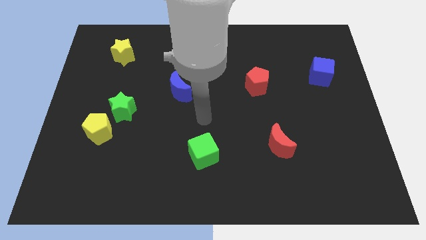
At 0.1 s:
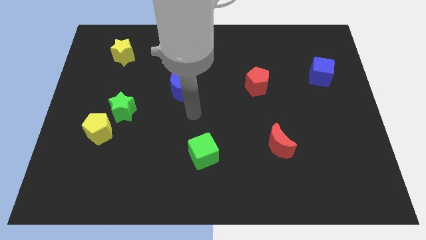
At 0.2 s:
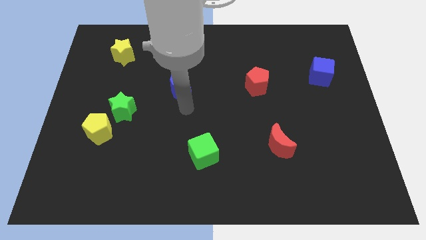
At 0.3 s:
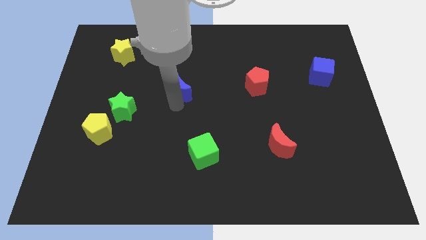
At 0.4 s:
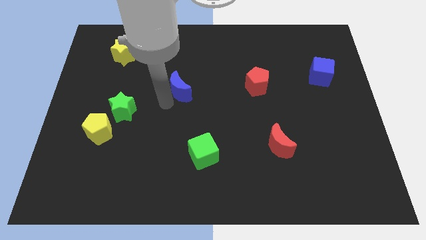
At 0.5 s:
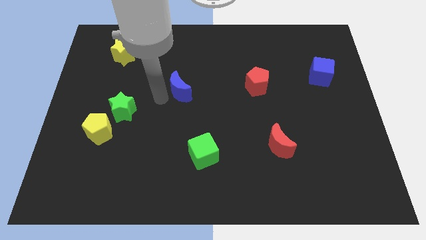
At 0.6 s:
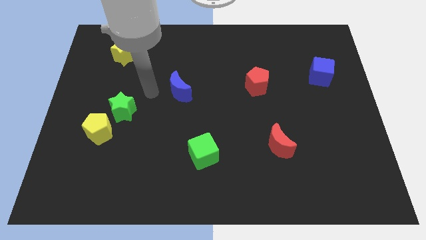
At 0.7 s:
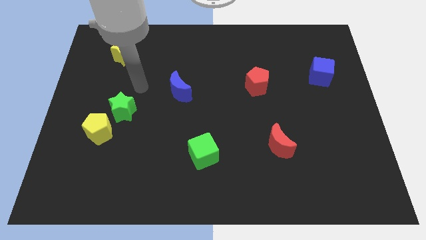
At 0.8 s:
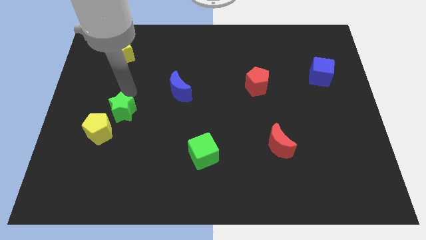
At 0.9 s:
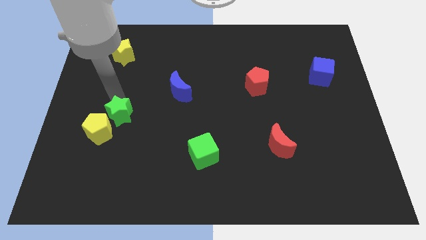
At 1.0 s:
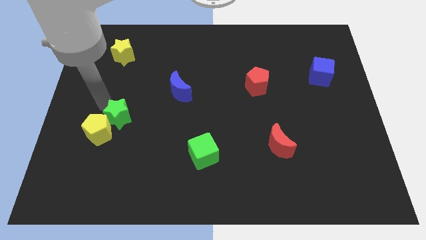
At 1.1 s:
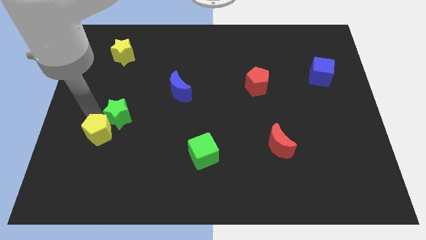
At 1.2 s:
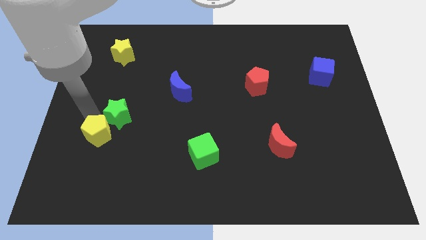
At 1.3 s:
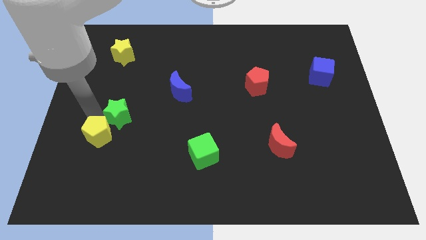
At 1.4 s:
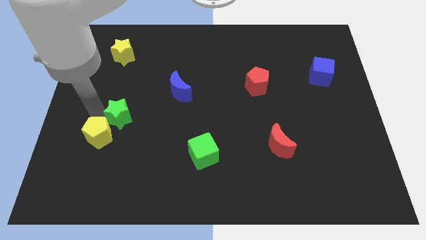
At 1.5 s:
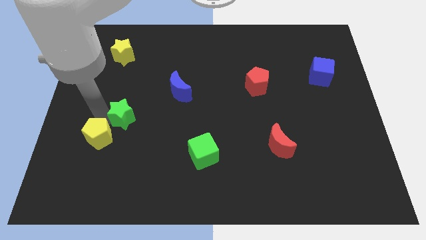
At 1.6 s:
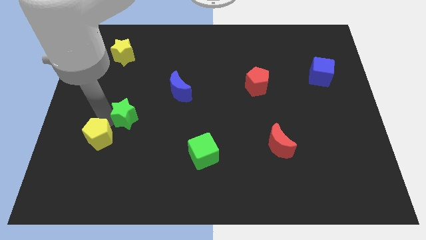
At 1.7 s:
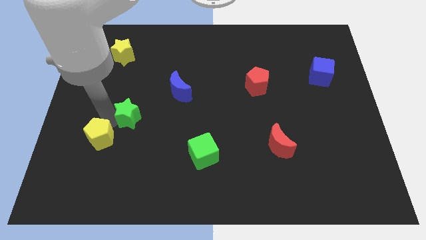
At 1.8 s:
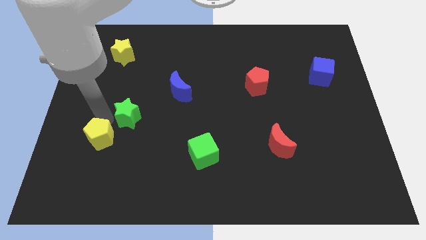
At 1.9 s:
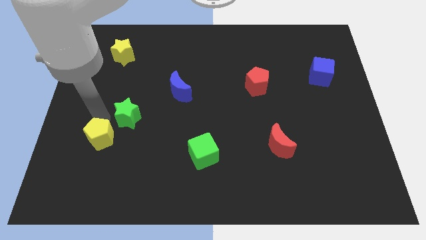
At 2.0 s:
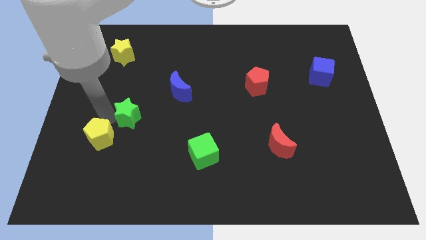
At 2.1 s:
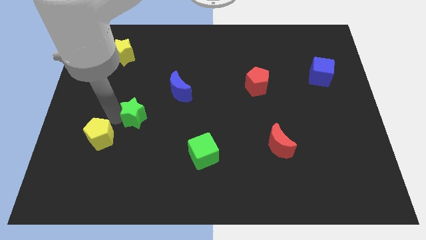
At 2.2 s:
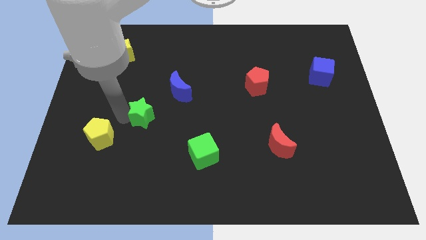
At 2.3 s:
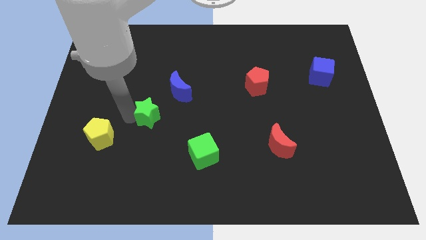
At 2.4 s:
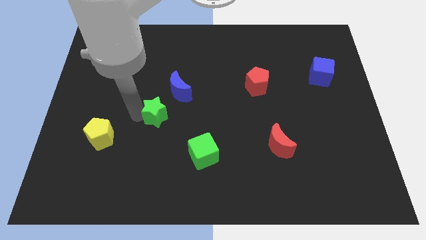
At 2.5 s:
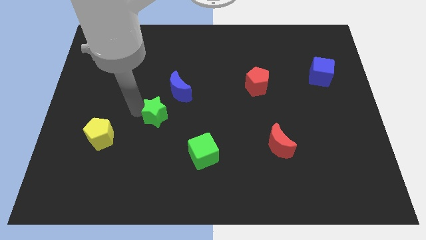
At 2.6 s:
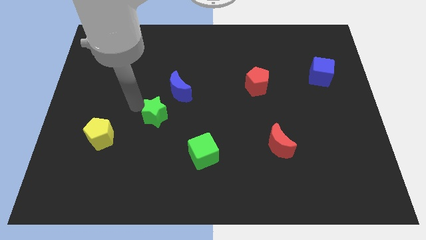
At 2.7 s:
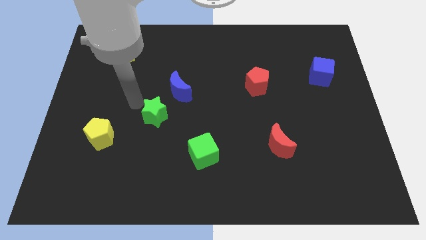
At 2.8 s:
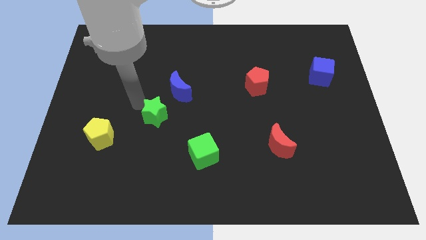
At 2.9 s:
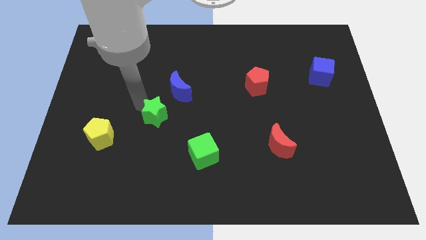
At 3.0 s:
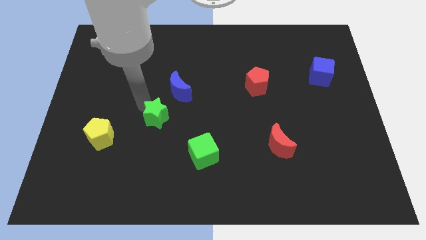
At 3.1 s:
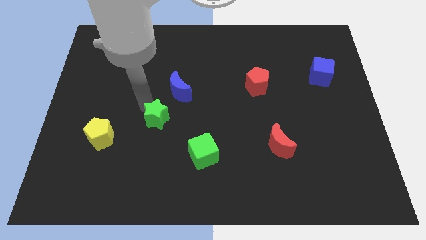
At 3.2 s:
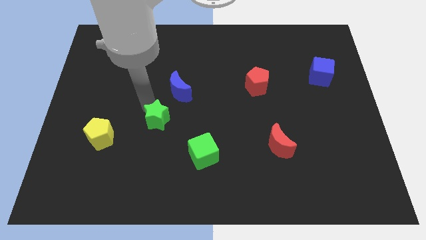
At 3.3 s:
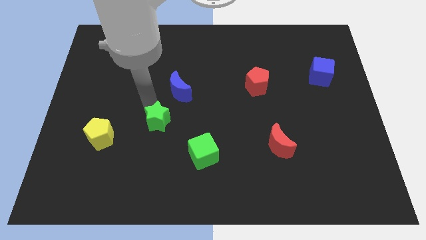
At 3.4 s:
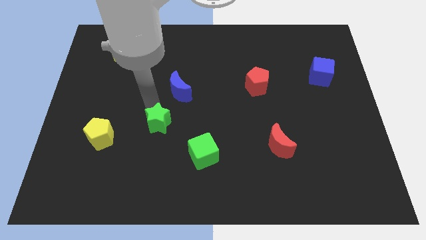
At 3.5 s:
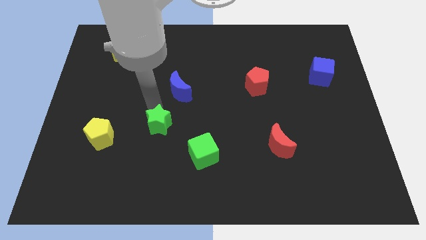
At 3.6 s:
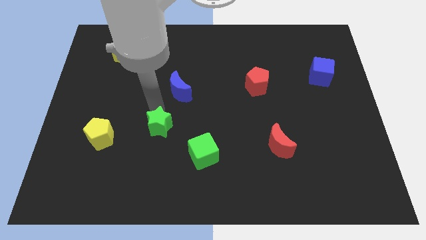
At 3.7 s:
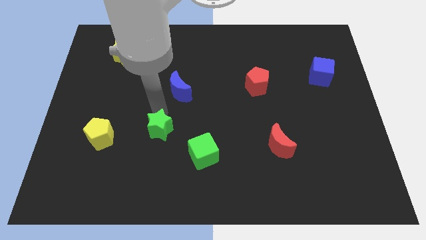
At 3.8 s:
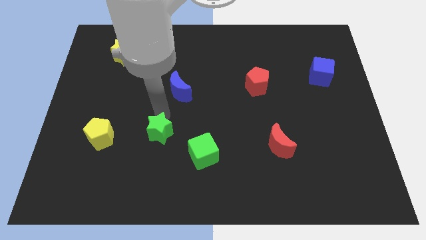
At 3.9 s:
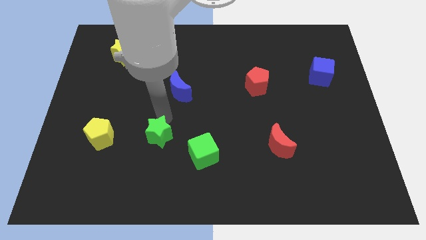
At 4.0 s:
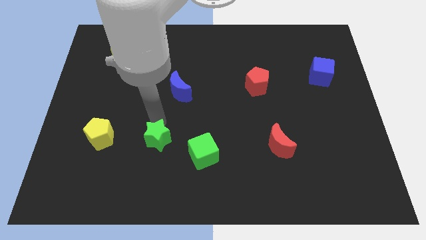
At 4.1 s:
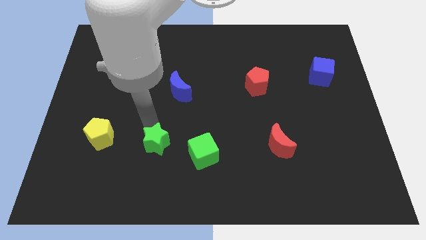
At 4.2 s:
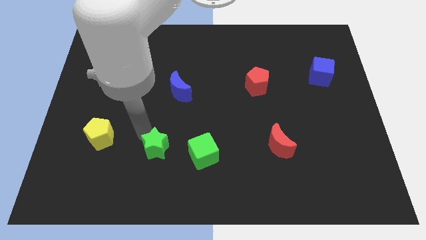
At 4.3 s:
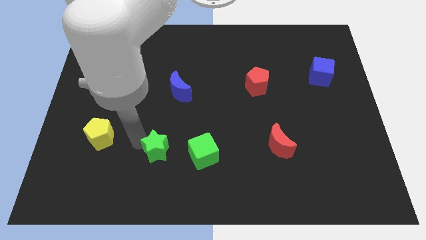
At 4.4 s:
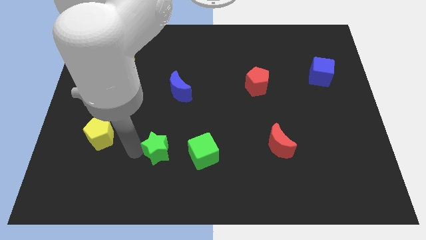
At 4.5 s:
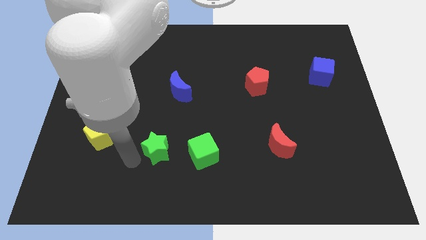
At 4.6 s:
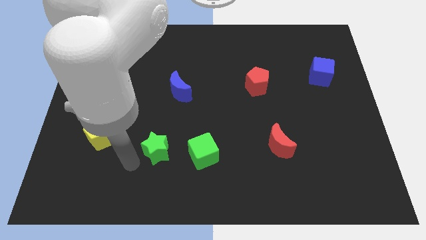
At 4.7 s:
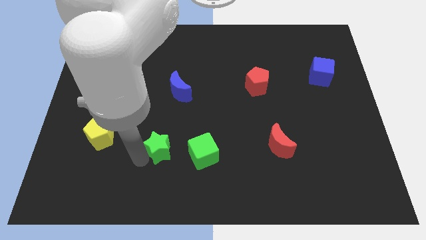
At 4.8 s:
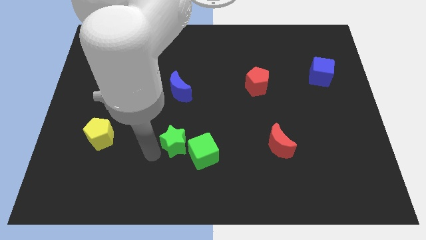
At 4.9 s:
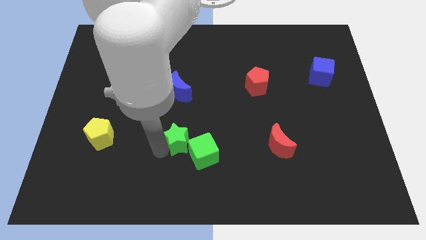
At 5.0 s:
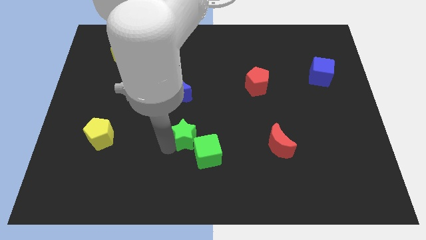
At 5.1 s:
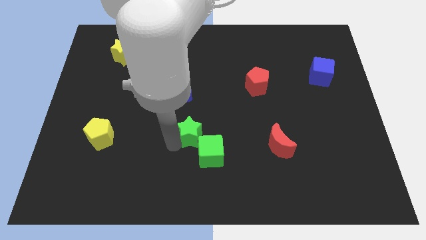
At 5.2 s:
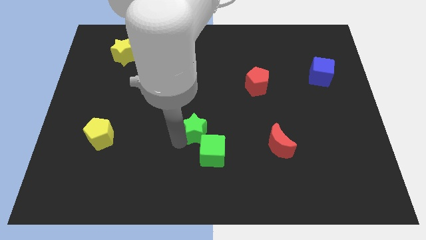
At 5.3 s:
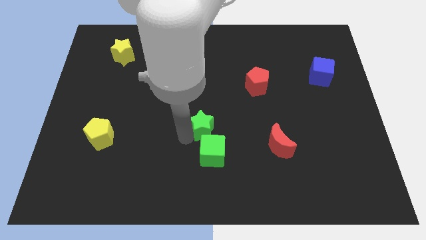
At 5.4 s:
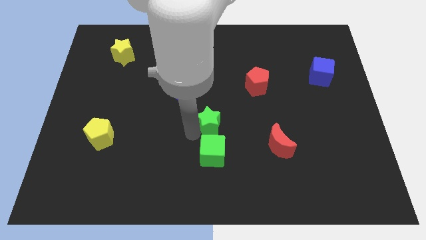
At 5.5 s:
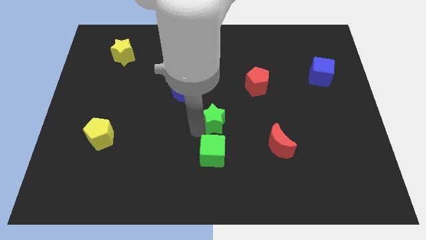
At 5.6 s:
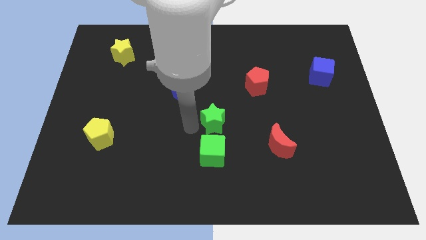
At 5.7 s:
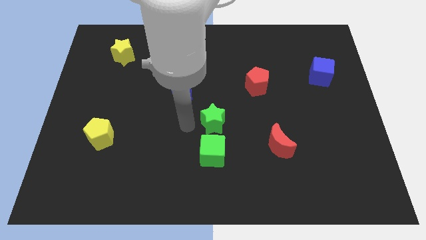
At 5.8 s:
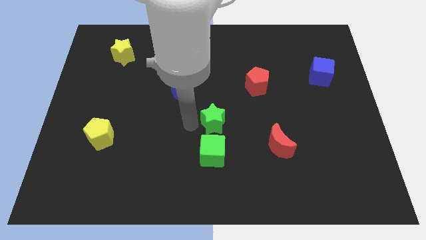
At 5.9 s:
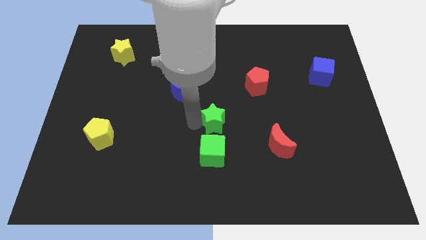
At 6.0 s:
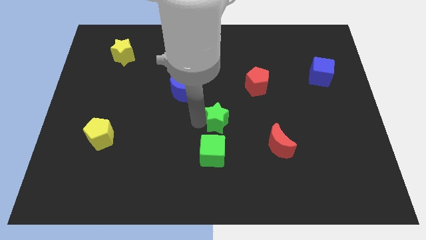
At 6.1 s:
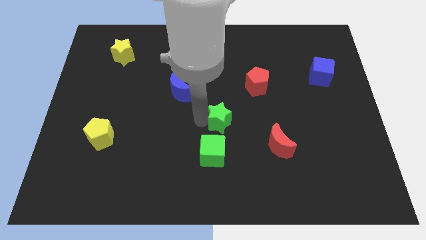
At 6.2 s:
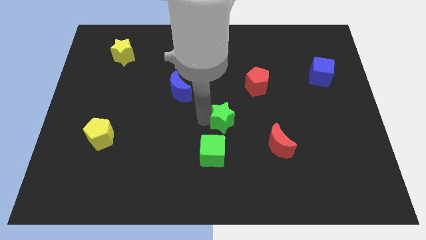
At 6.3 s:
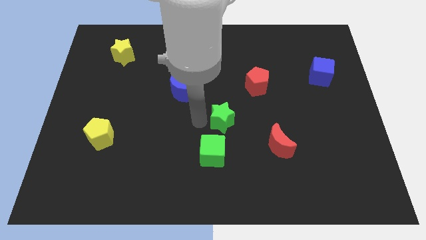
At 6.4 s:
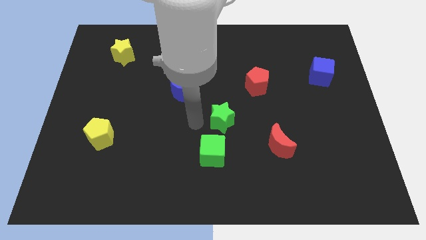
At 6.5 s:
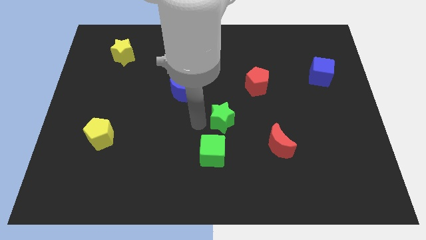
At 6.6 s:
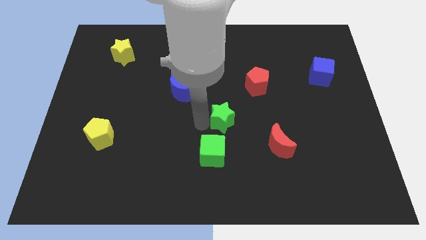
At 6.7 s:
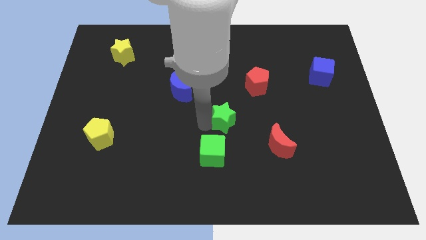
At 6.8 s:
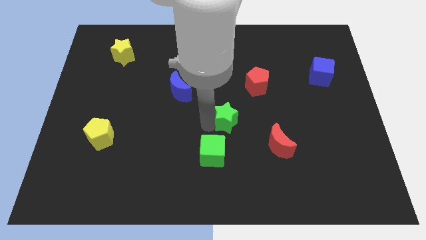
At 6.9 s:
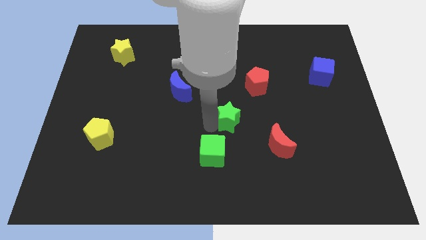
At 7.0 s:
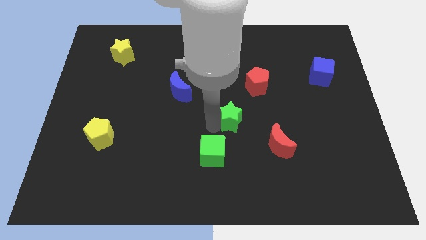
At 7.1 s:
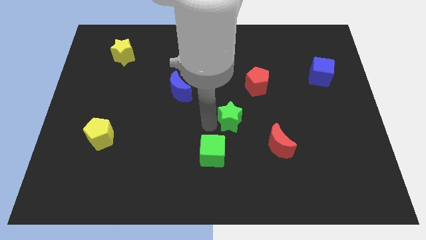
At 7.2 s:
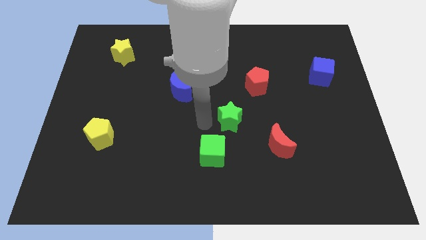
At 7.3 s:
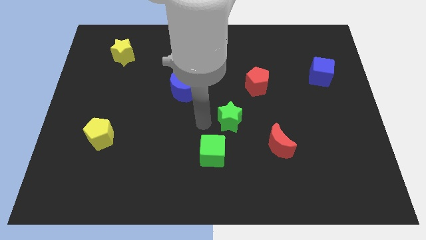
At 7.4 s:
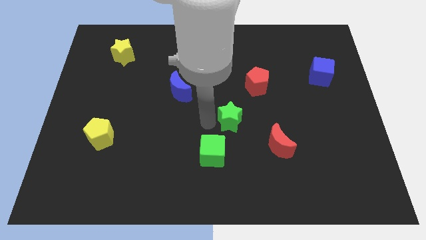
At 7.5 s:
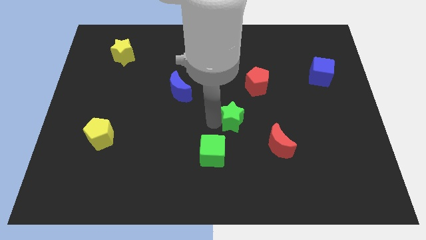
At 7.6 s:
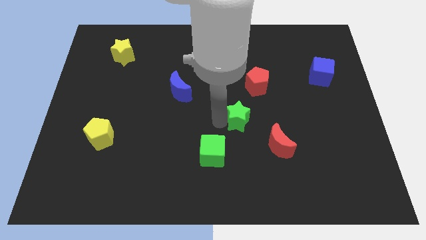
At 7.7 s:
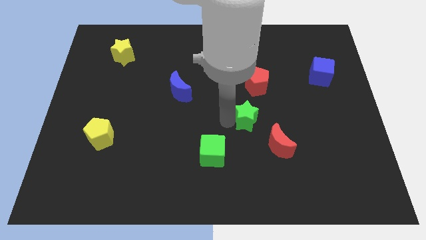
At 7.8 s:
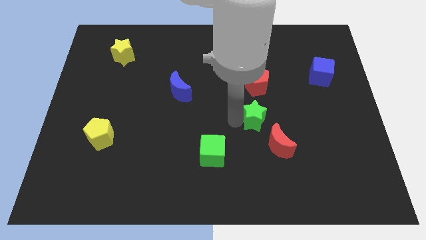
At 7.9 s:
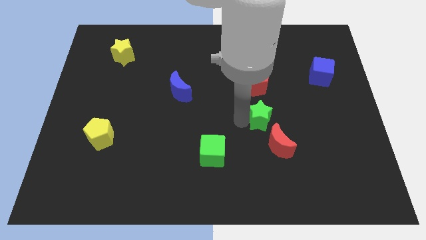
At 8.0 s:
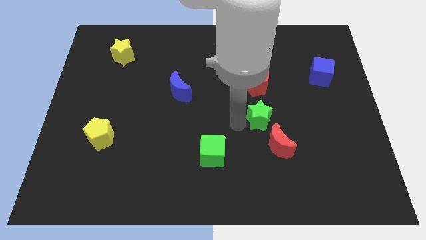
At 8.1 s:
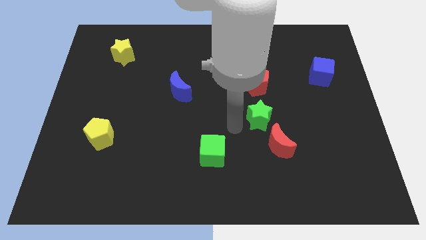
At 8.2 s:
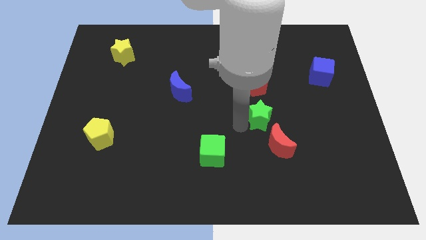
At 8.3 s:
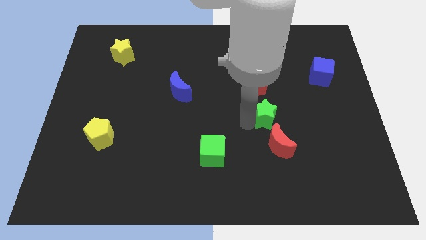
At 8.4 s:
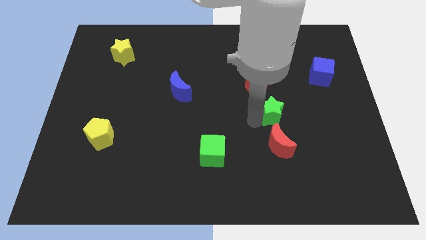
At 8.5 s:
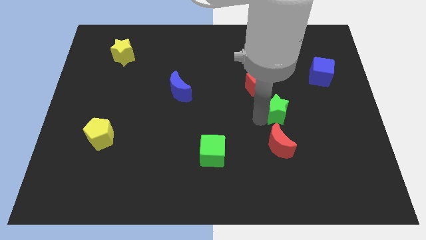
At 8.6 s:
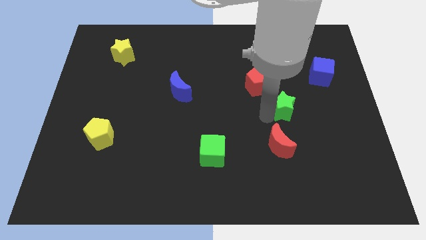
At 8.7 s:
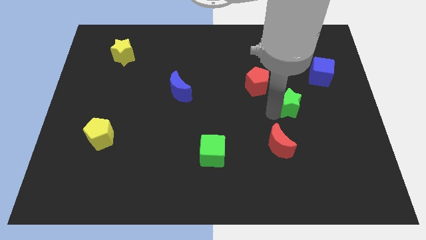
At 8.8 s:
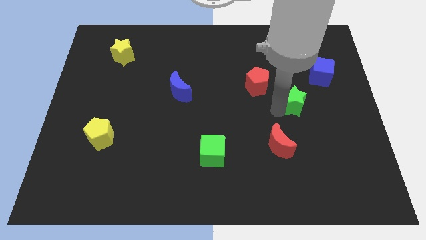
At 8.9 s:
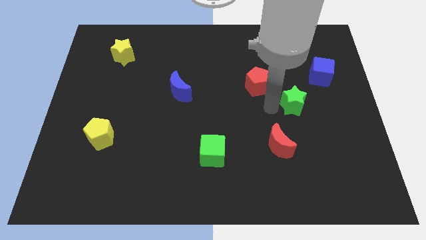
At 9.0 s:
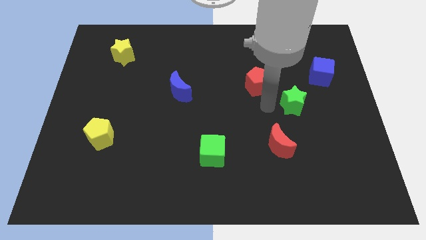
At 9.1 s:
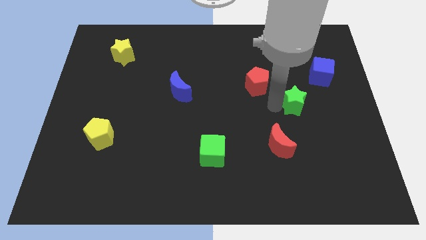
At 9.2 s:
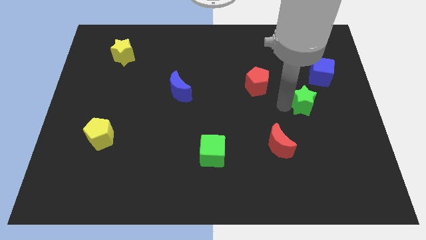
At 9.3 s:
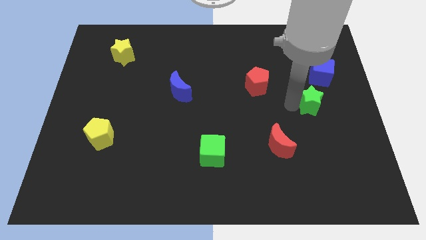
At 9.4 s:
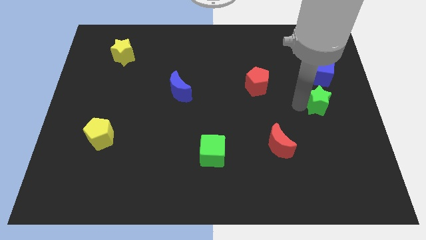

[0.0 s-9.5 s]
push the green star to the right side
